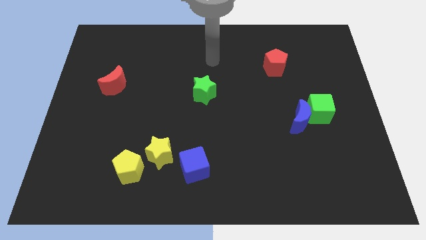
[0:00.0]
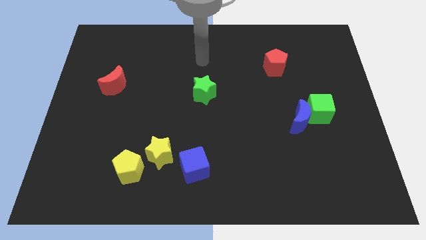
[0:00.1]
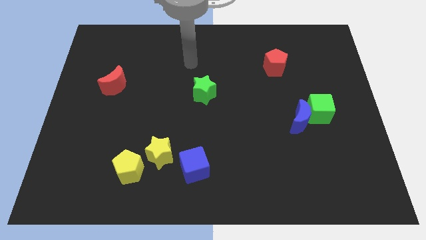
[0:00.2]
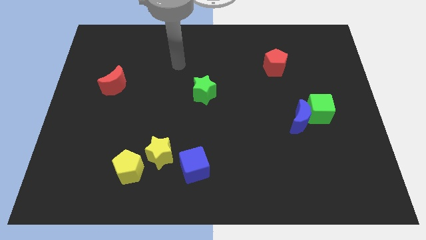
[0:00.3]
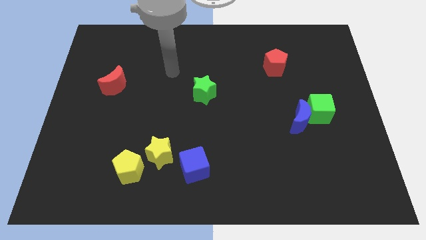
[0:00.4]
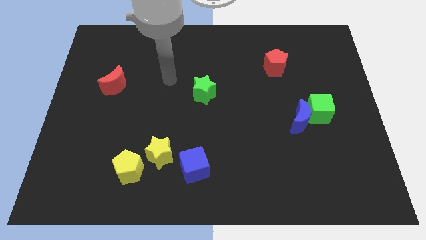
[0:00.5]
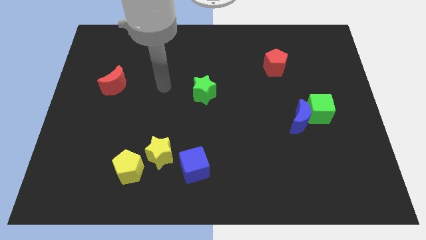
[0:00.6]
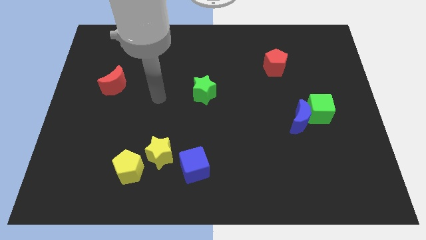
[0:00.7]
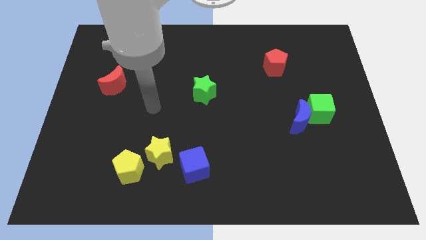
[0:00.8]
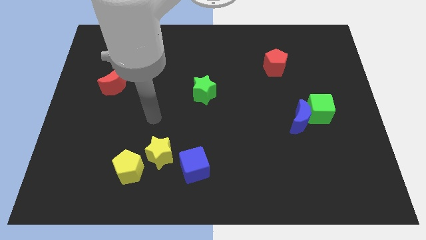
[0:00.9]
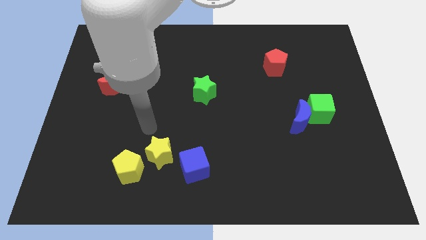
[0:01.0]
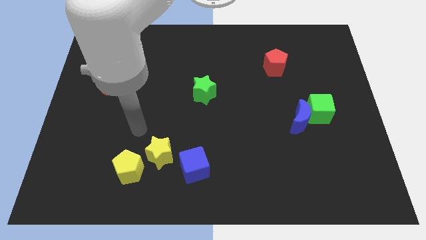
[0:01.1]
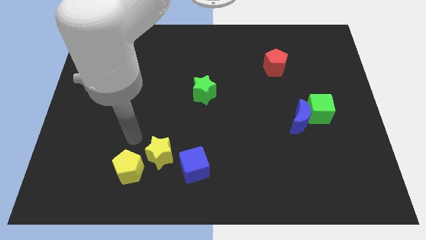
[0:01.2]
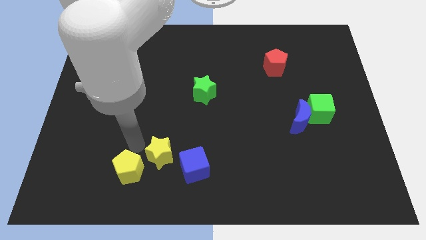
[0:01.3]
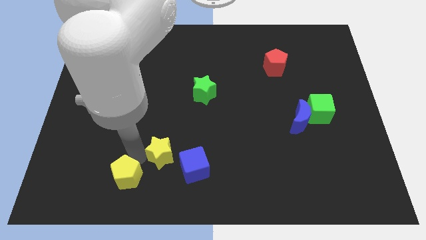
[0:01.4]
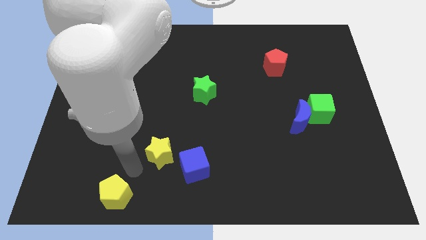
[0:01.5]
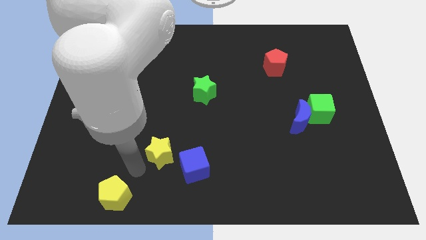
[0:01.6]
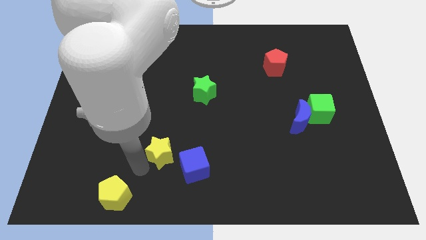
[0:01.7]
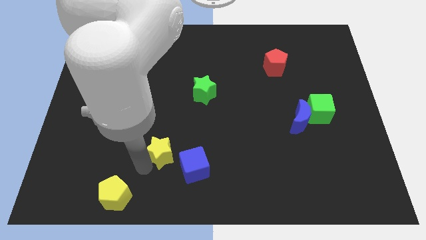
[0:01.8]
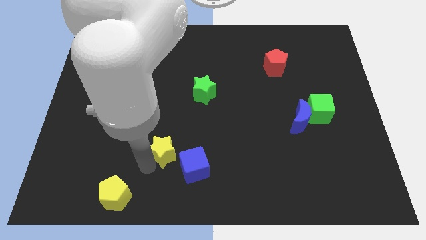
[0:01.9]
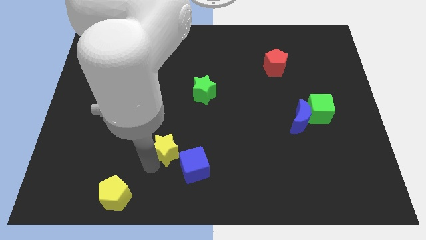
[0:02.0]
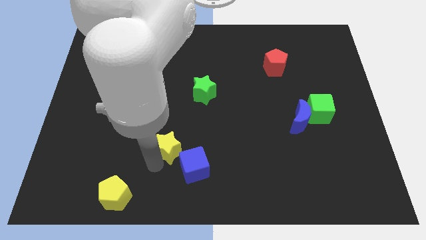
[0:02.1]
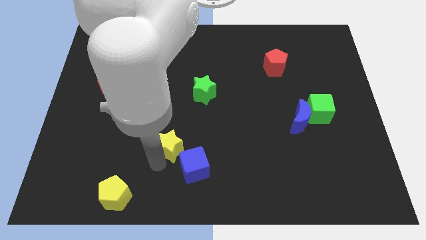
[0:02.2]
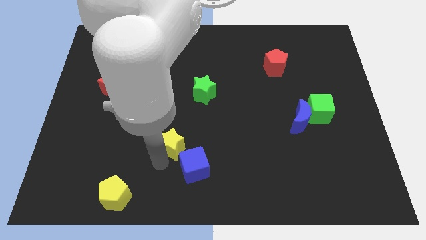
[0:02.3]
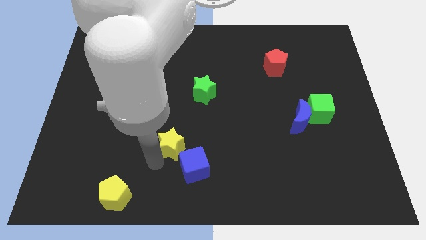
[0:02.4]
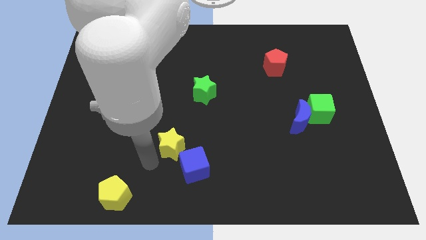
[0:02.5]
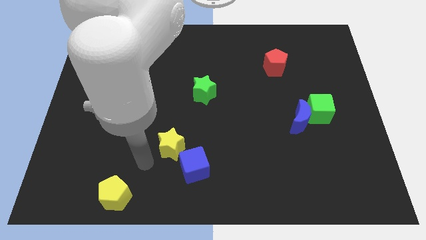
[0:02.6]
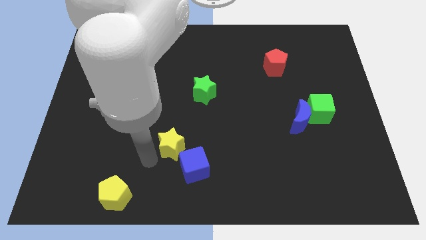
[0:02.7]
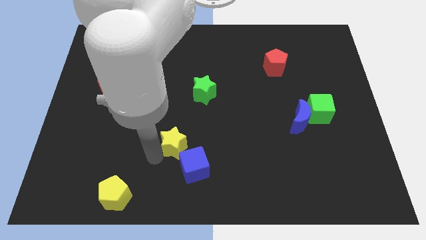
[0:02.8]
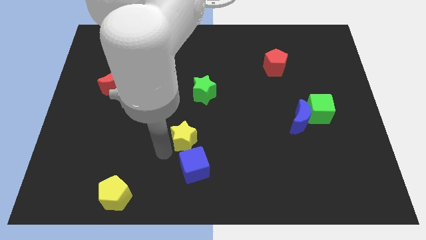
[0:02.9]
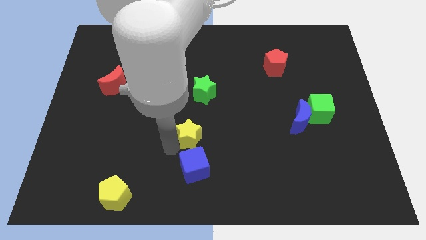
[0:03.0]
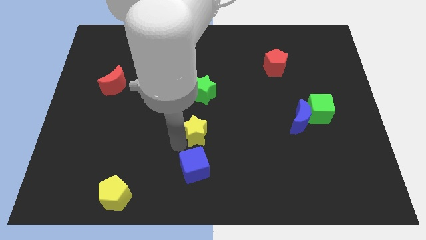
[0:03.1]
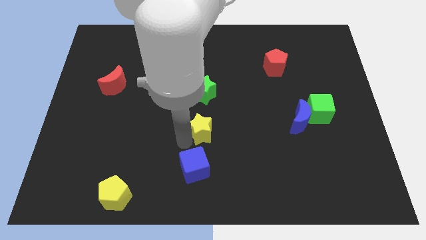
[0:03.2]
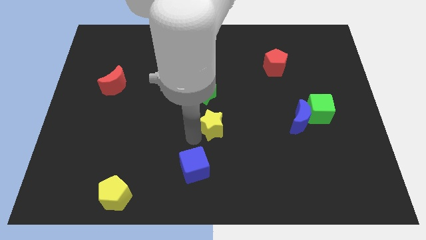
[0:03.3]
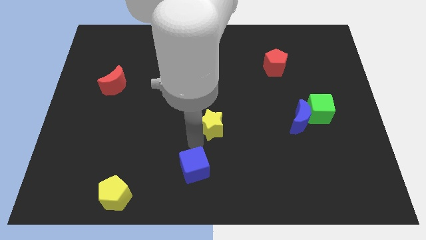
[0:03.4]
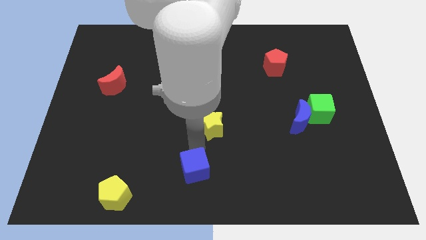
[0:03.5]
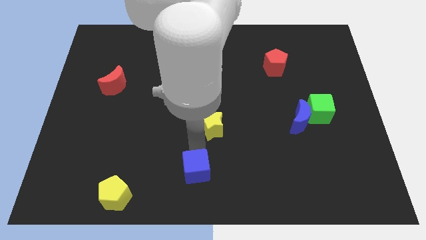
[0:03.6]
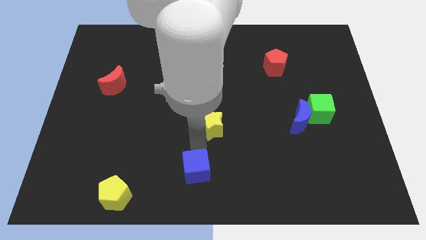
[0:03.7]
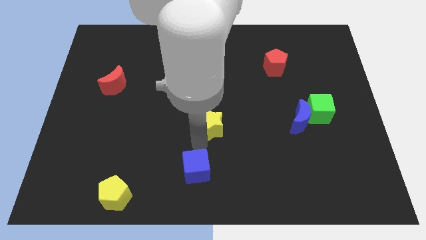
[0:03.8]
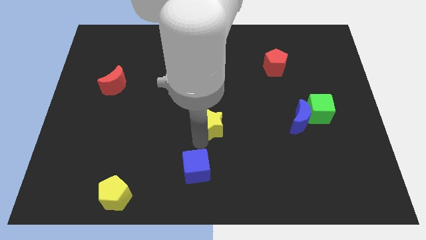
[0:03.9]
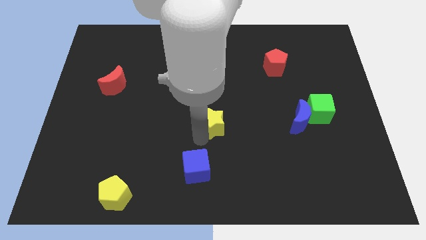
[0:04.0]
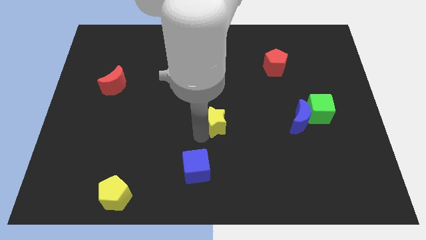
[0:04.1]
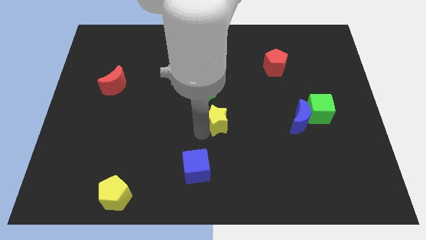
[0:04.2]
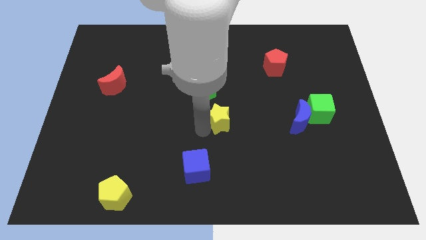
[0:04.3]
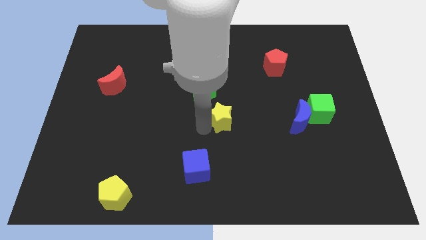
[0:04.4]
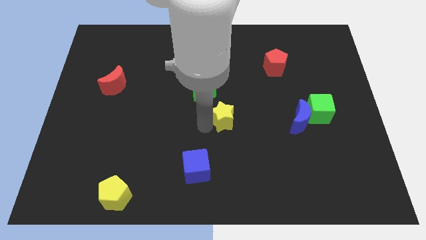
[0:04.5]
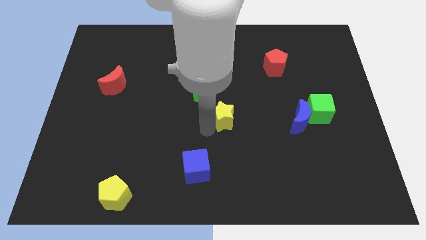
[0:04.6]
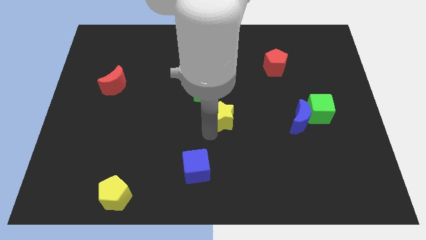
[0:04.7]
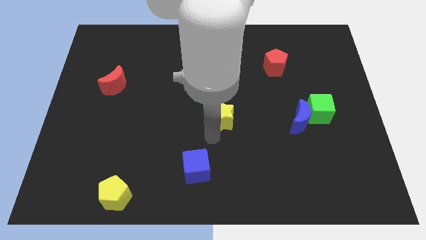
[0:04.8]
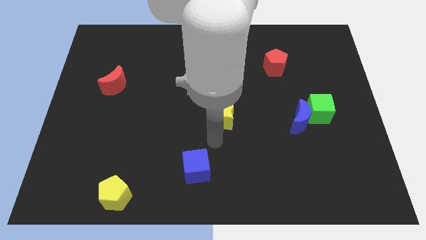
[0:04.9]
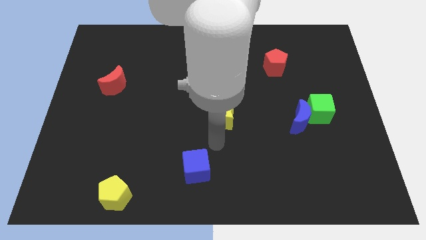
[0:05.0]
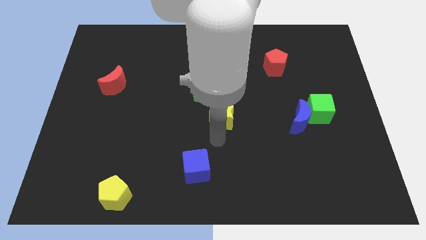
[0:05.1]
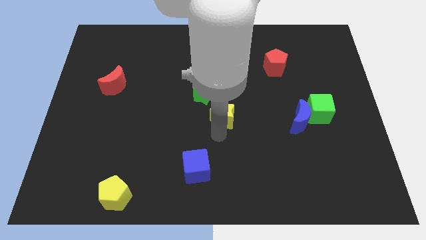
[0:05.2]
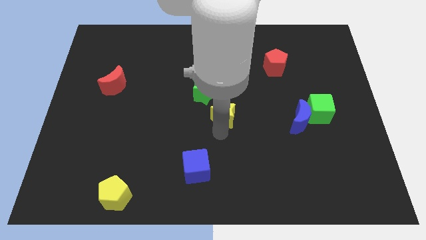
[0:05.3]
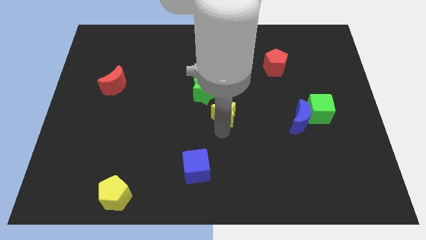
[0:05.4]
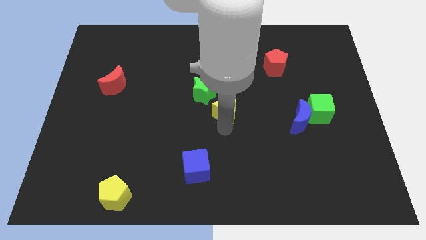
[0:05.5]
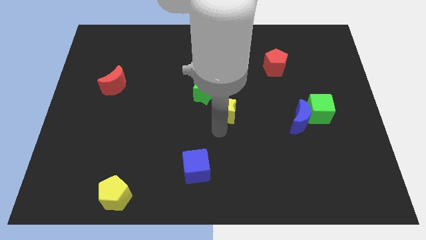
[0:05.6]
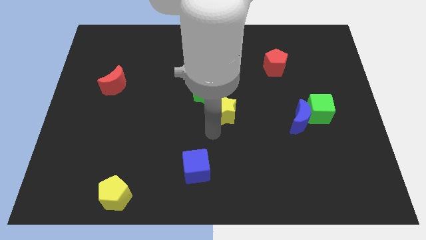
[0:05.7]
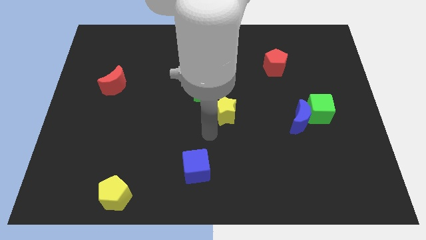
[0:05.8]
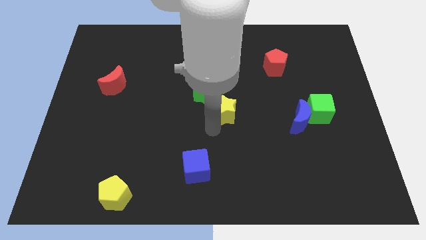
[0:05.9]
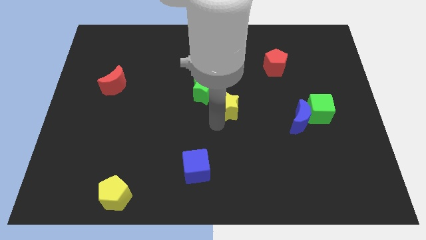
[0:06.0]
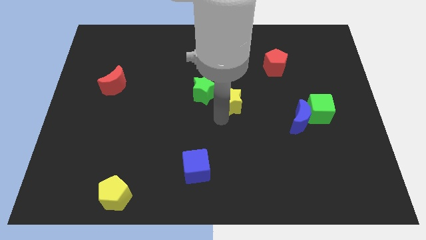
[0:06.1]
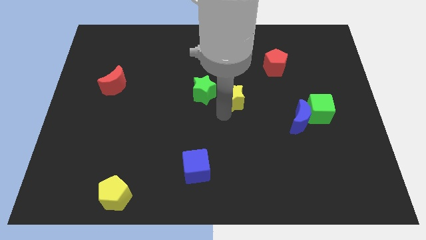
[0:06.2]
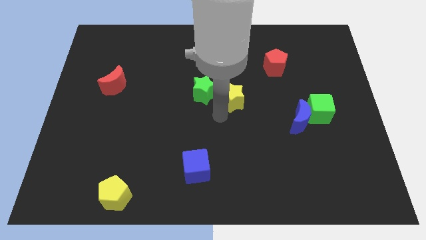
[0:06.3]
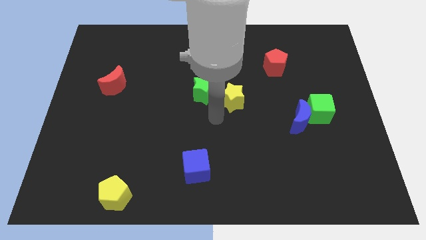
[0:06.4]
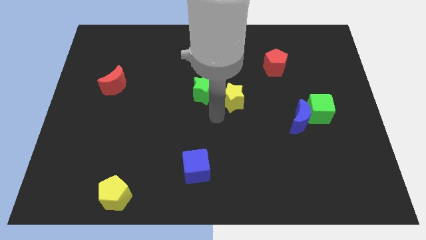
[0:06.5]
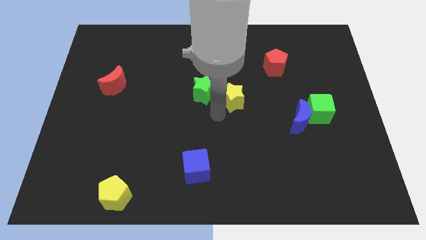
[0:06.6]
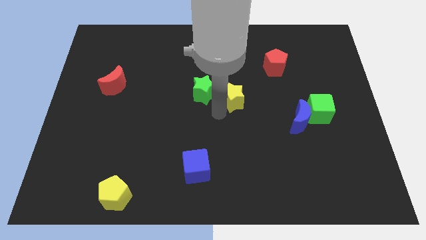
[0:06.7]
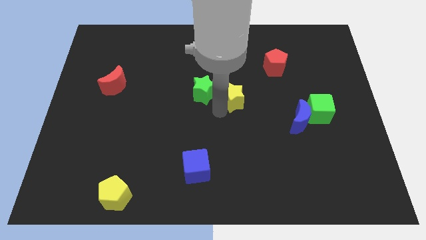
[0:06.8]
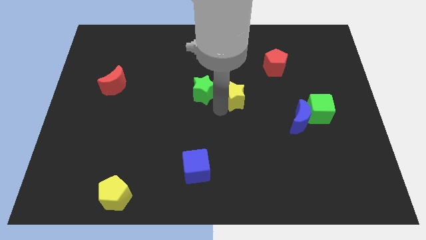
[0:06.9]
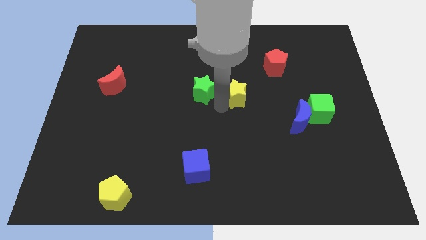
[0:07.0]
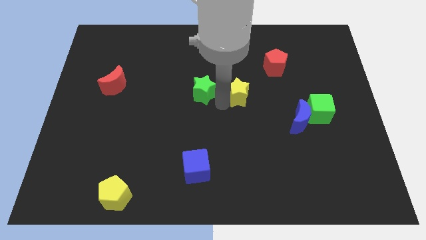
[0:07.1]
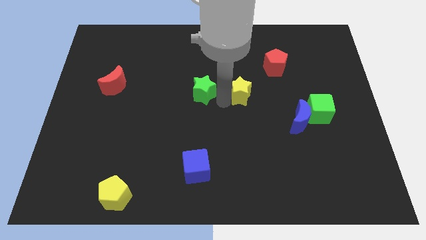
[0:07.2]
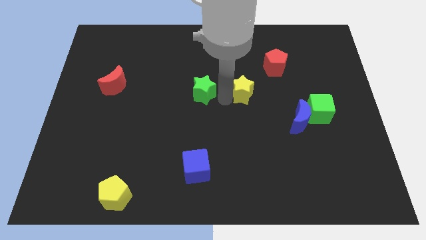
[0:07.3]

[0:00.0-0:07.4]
push the yellow star to the bottom left of the red pentagon
